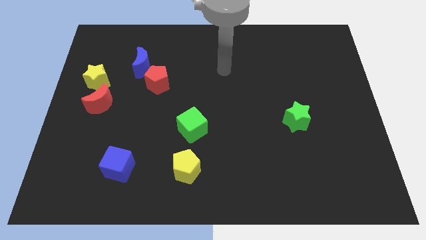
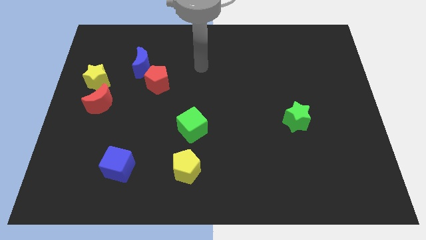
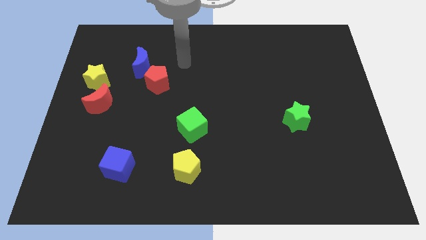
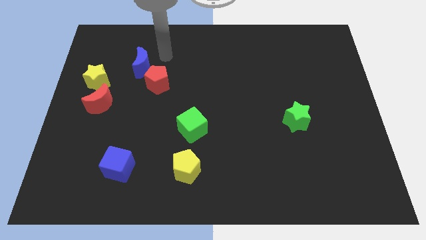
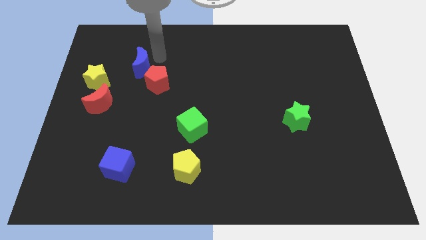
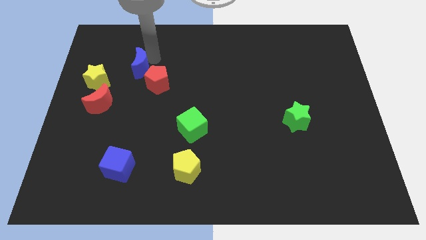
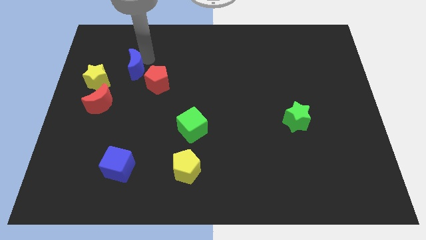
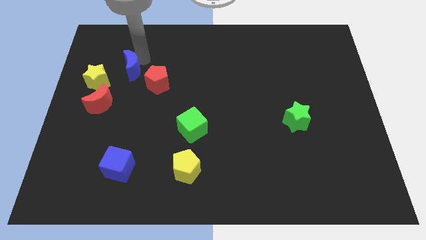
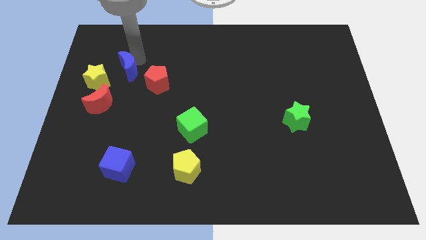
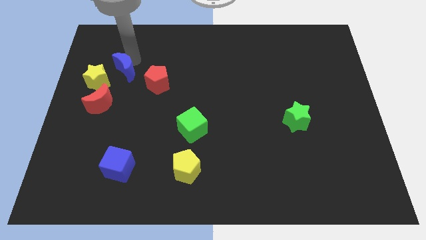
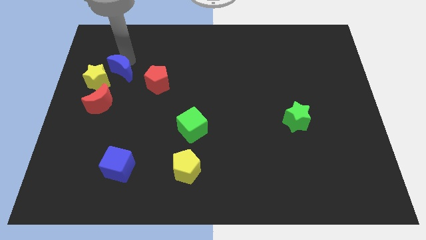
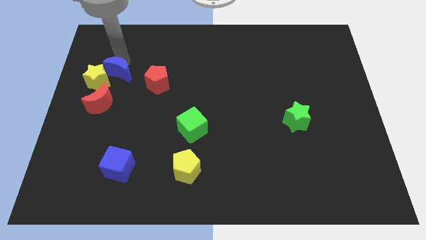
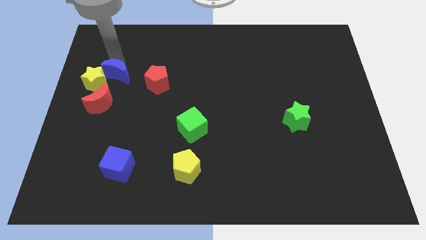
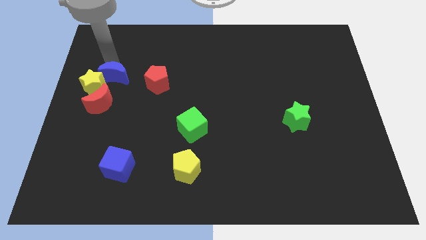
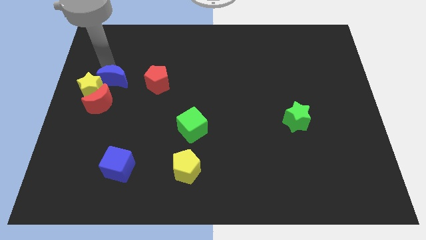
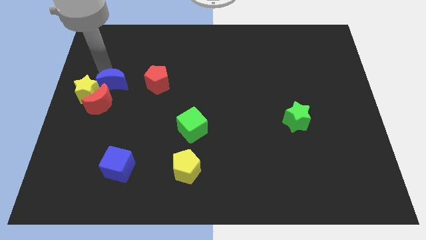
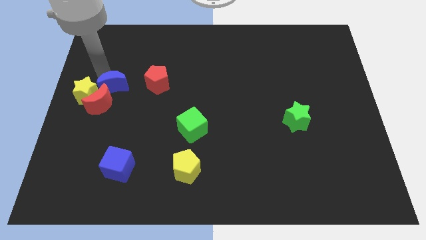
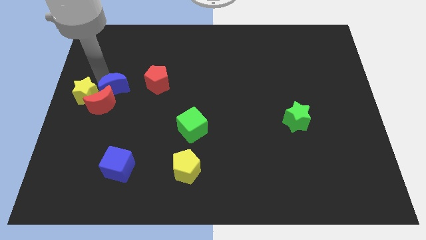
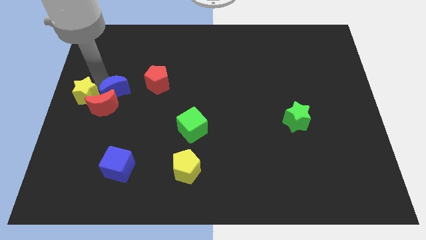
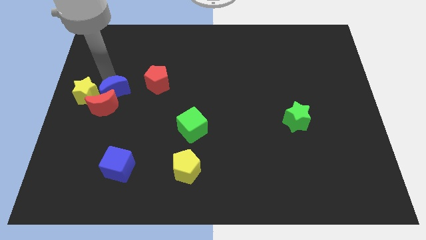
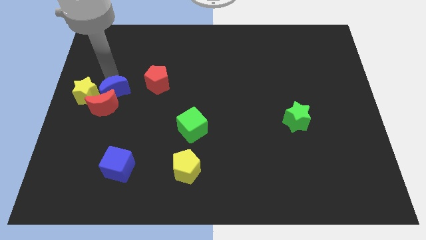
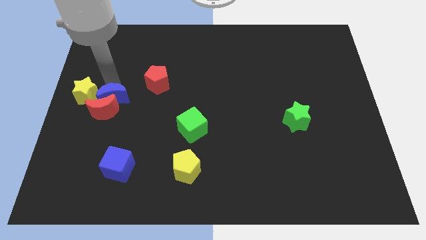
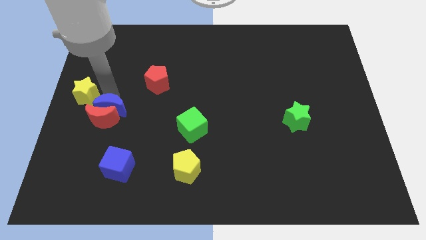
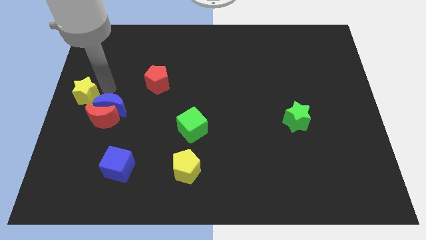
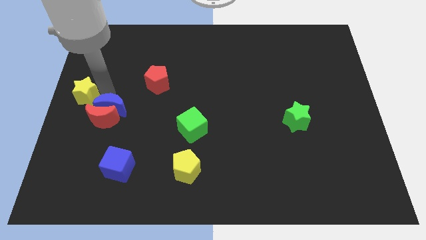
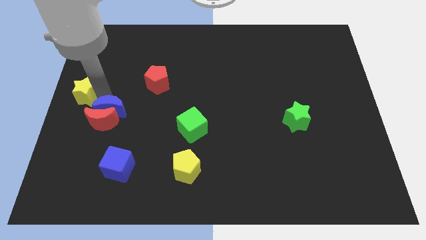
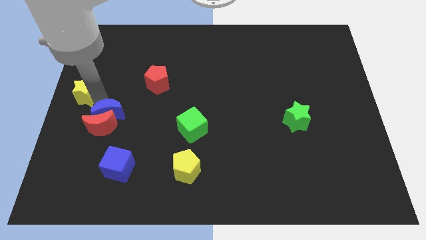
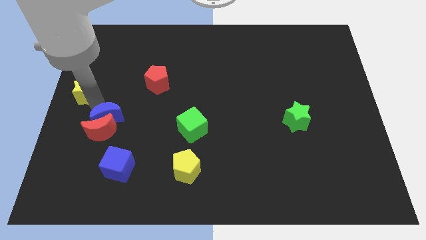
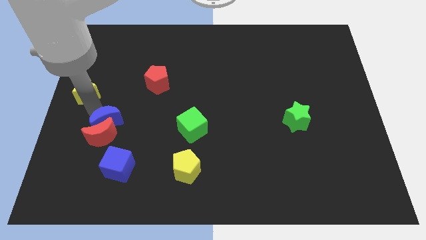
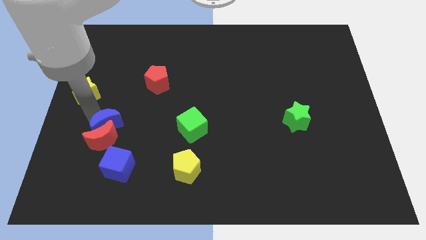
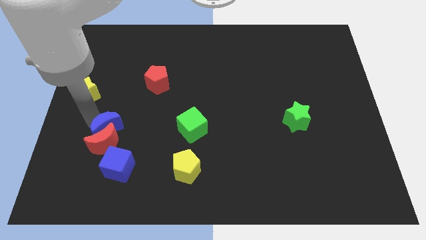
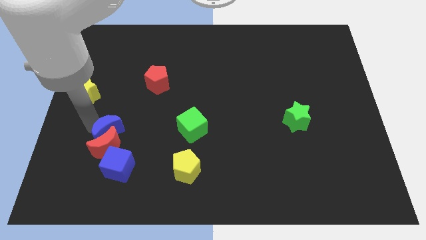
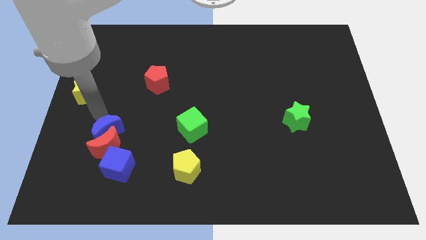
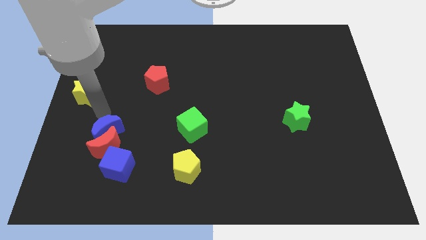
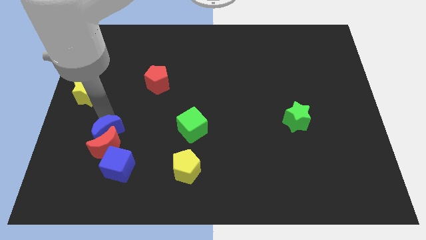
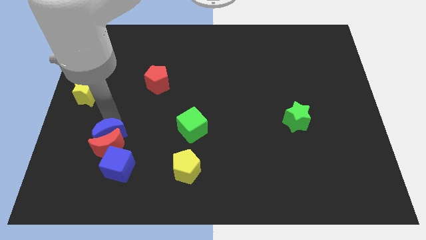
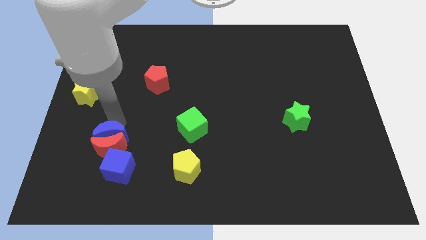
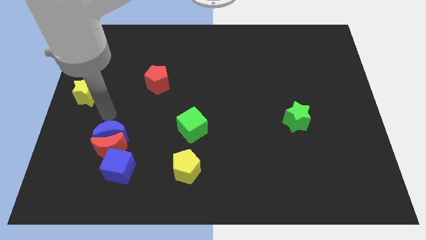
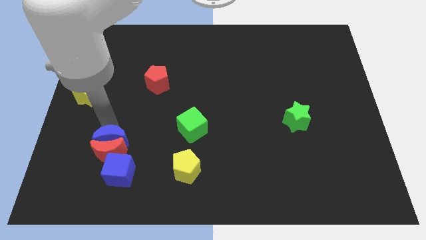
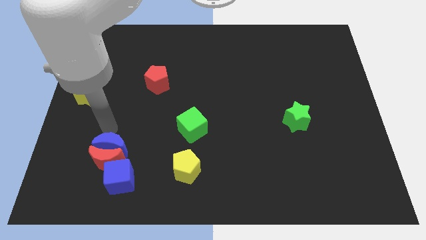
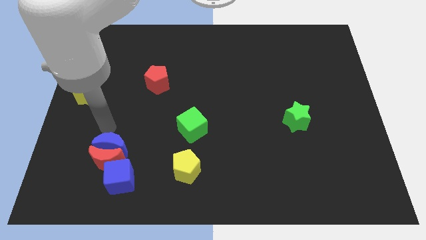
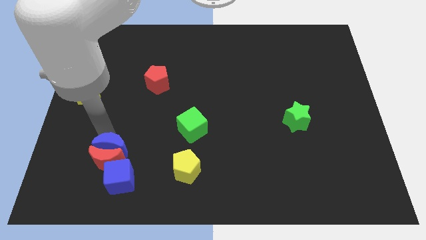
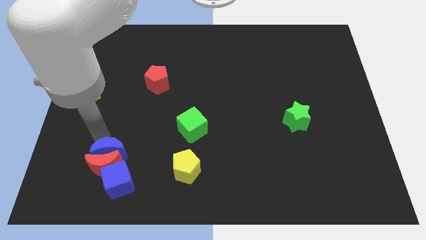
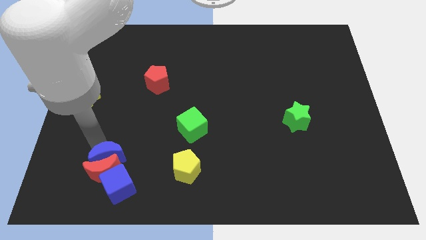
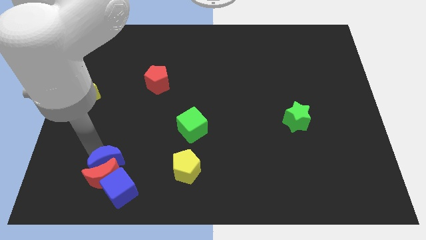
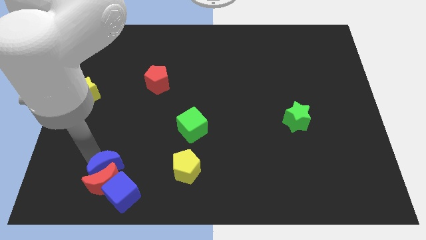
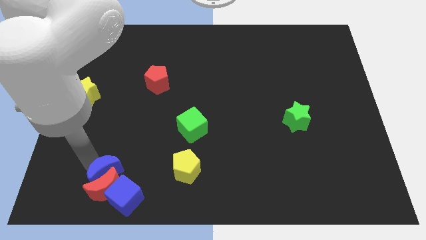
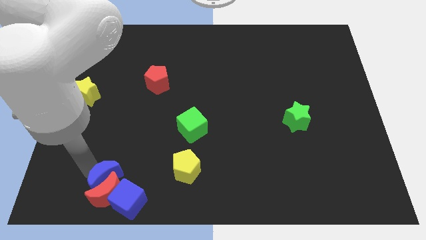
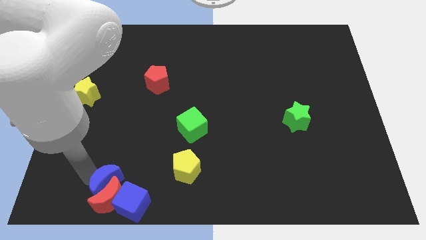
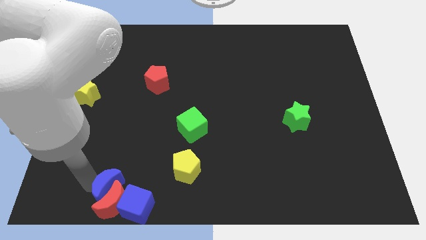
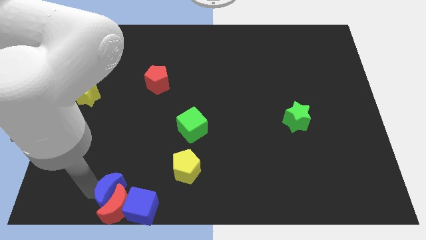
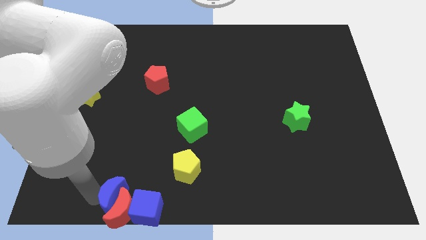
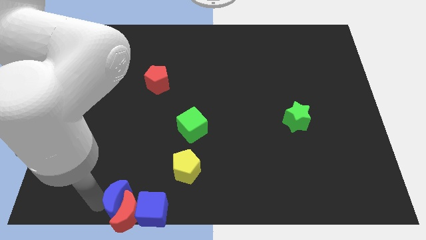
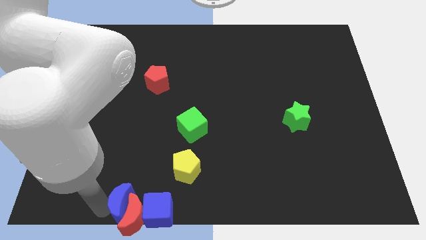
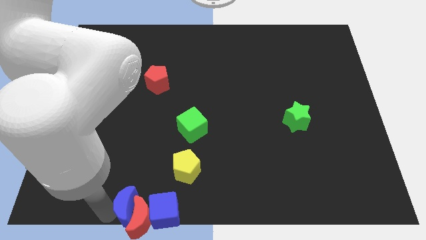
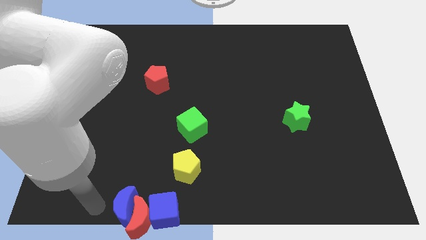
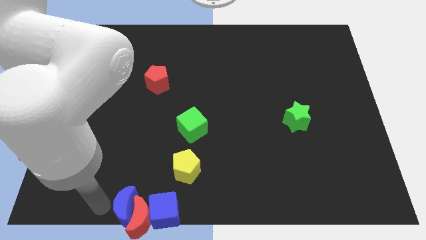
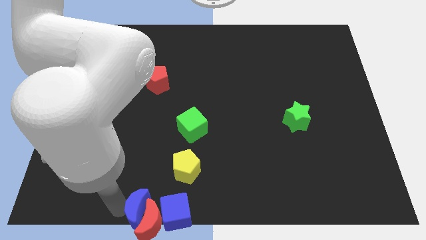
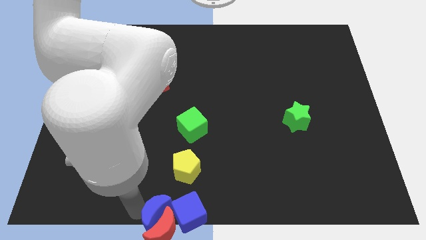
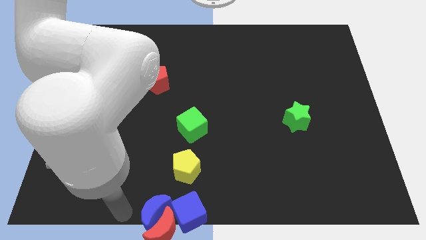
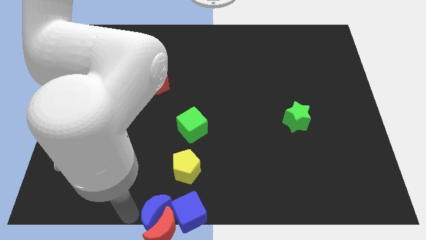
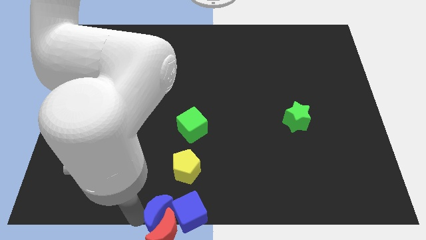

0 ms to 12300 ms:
put the blue moon towards the blue cube

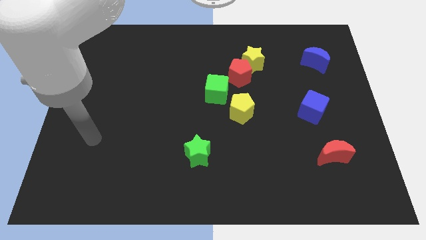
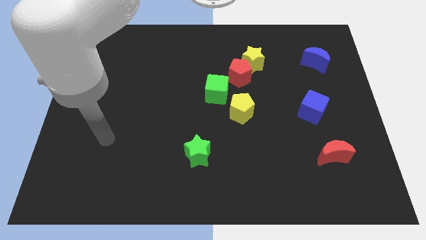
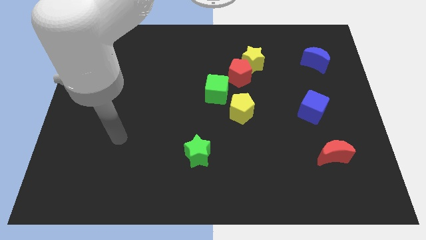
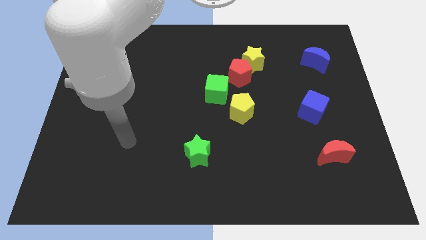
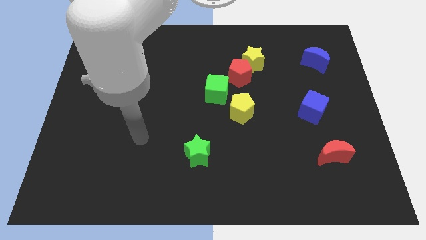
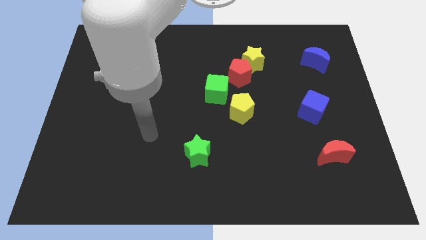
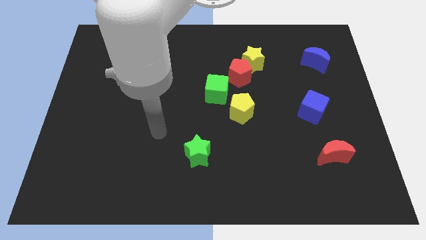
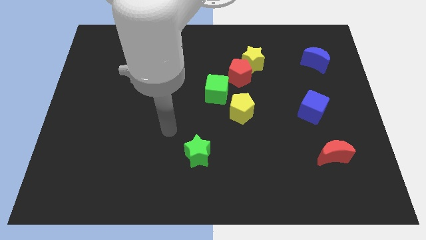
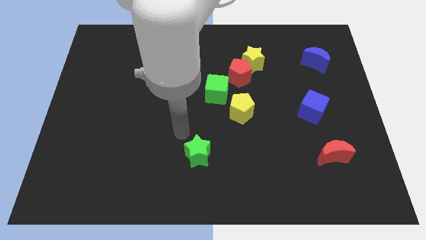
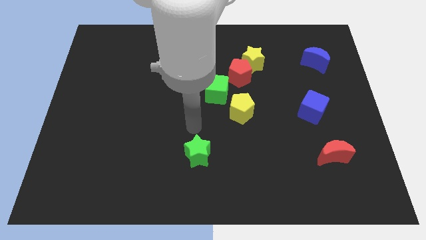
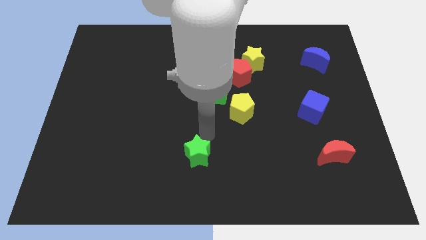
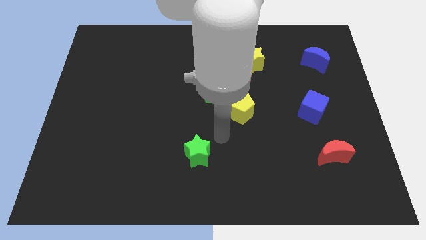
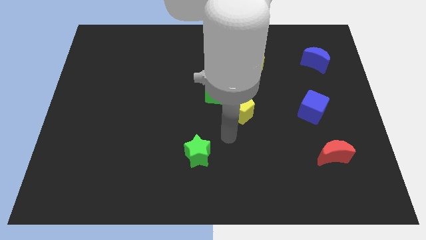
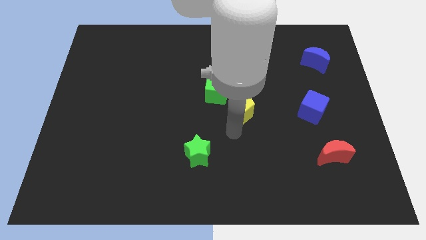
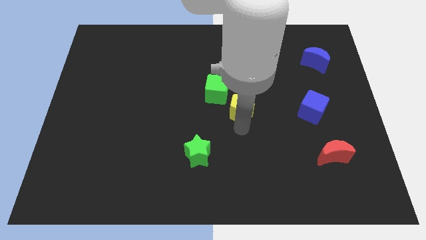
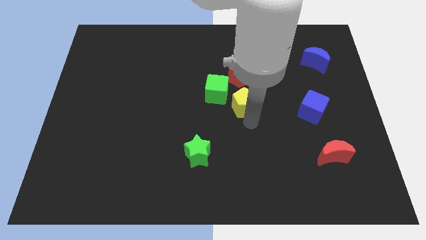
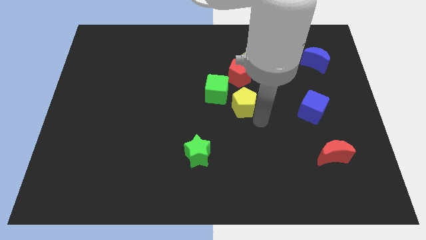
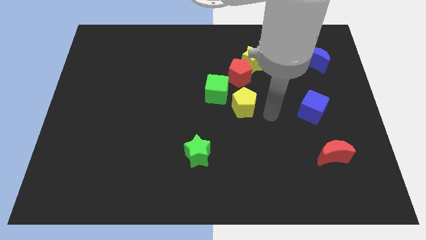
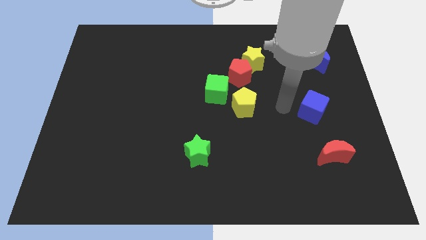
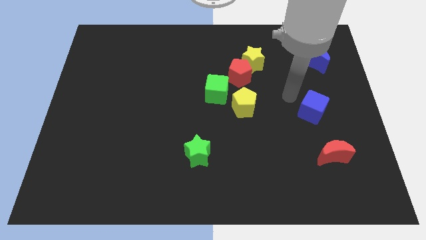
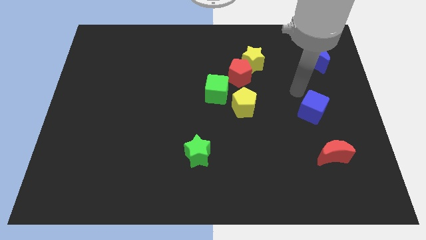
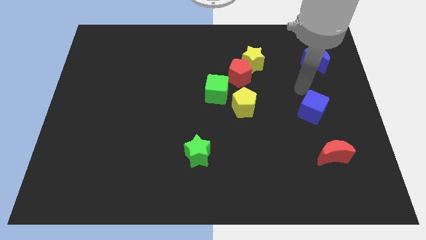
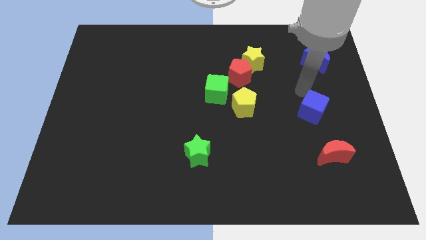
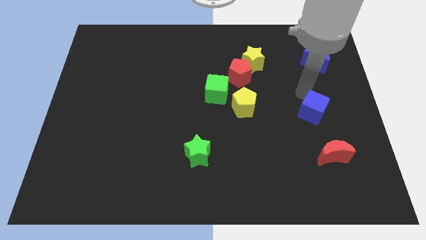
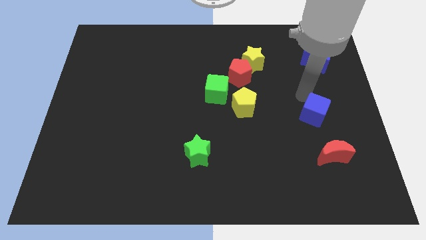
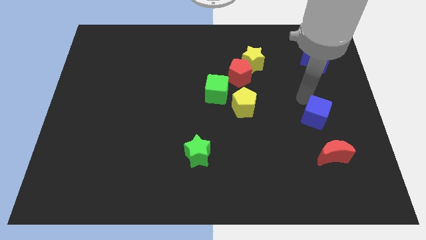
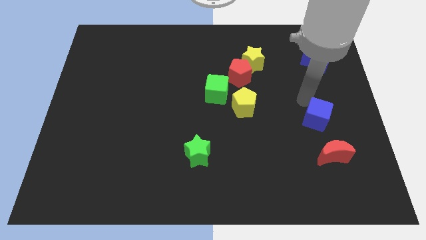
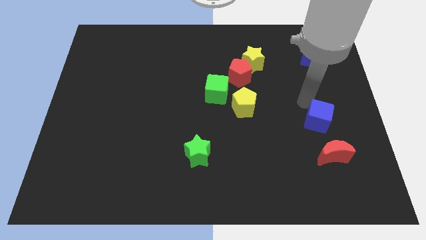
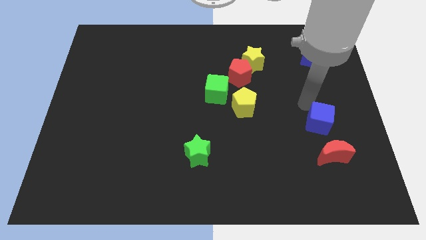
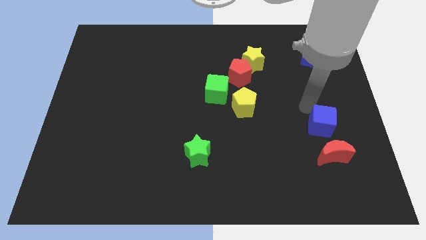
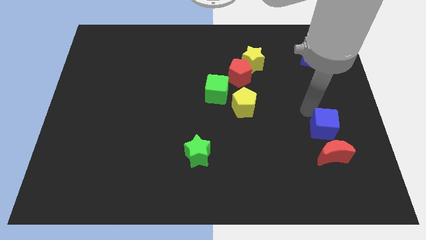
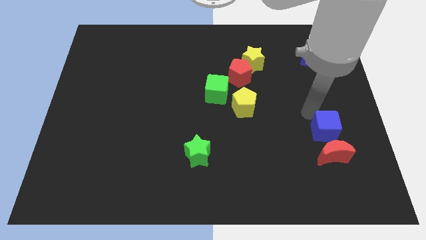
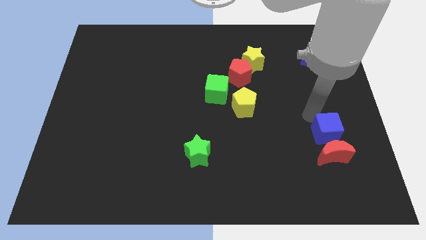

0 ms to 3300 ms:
push the blue cube next to the red moon
